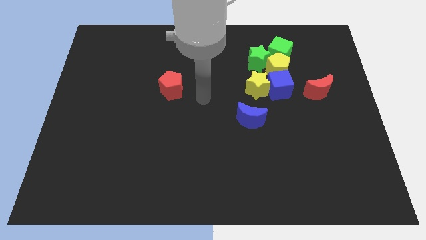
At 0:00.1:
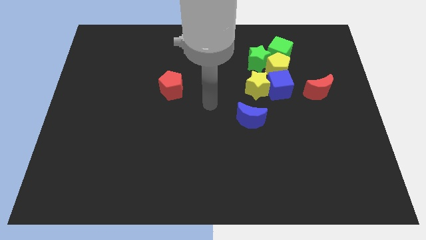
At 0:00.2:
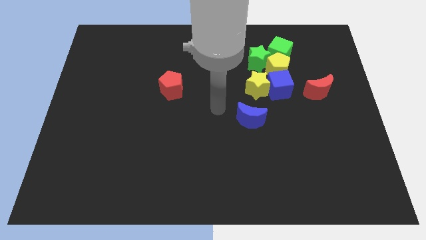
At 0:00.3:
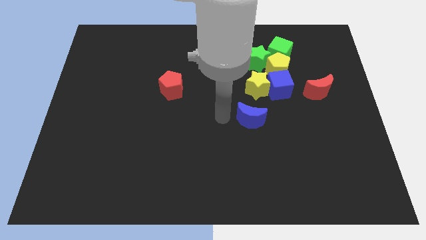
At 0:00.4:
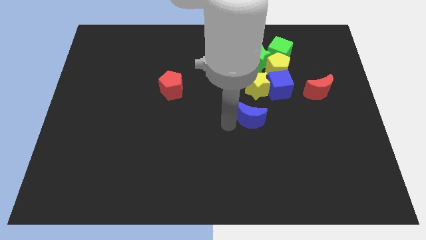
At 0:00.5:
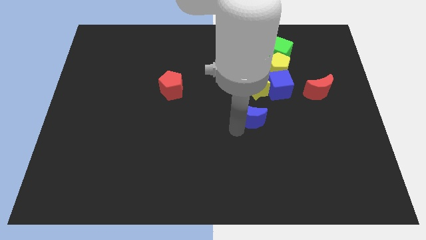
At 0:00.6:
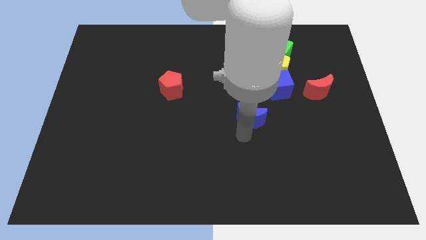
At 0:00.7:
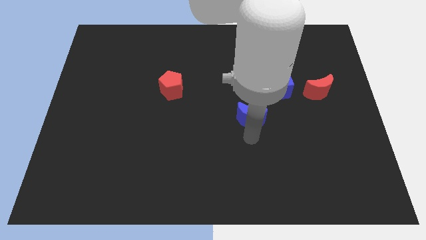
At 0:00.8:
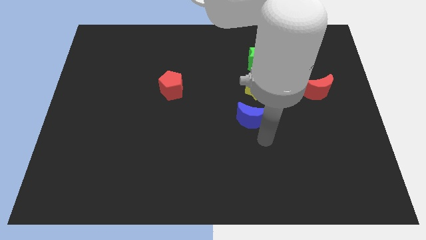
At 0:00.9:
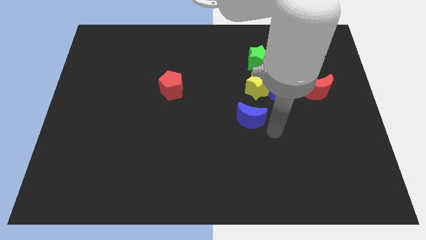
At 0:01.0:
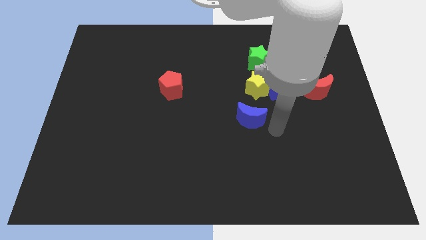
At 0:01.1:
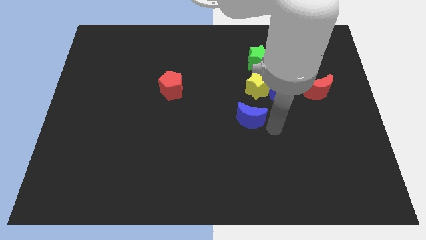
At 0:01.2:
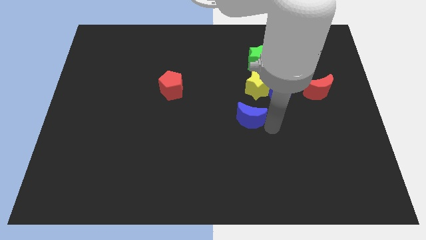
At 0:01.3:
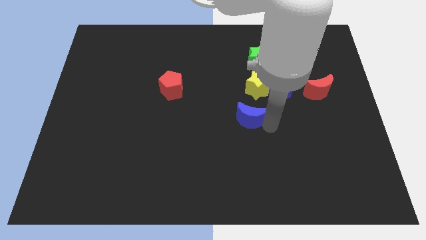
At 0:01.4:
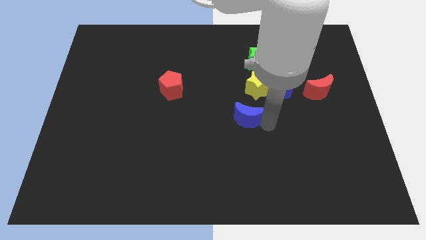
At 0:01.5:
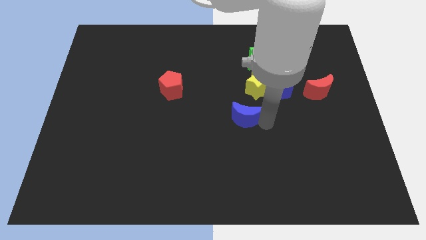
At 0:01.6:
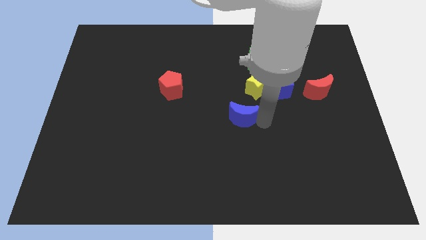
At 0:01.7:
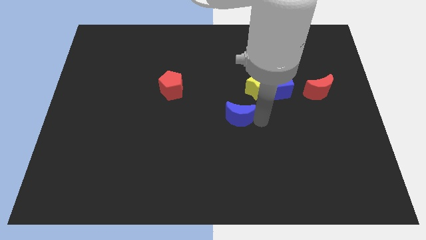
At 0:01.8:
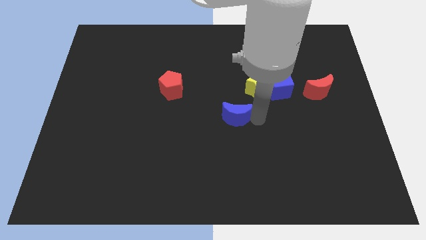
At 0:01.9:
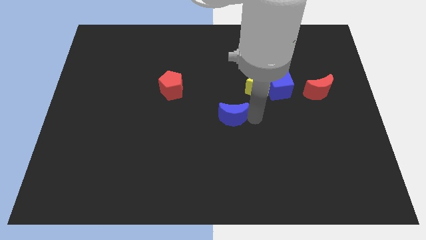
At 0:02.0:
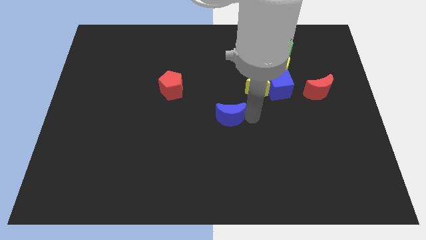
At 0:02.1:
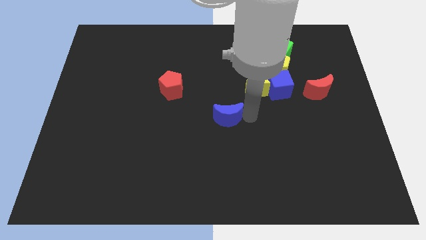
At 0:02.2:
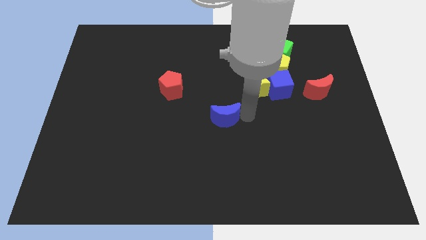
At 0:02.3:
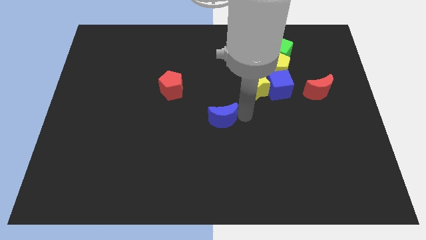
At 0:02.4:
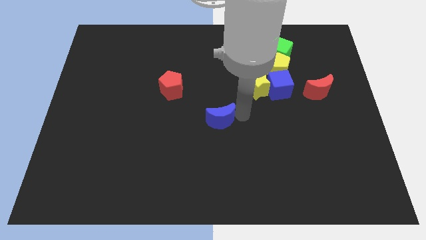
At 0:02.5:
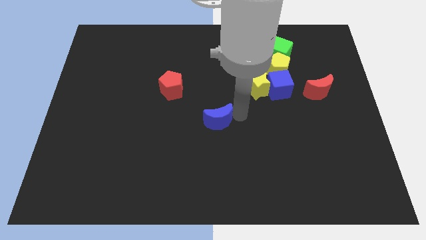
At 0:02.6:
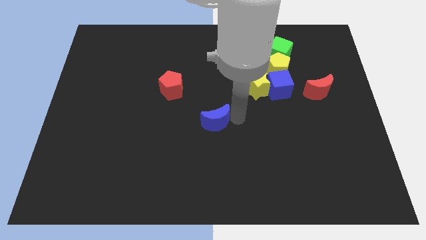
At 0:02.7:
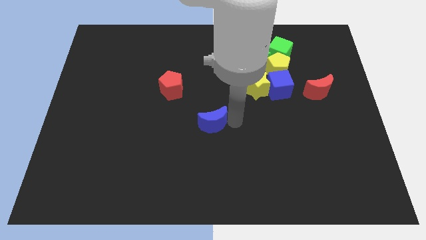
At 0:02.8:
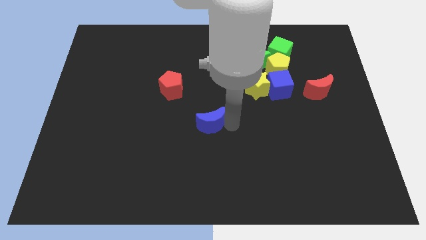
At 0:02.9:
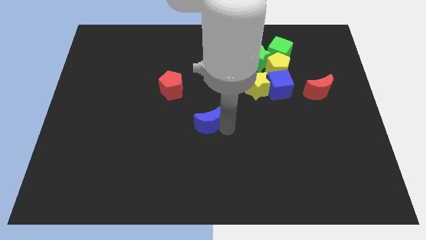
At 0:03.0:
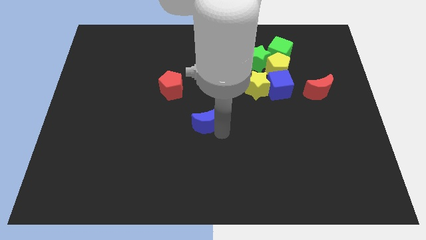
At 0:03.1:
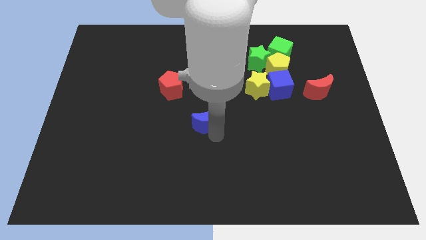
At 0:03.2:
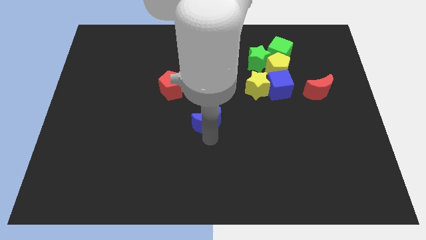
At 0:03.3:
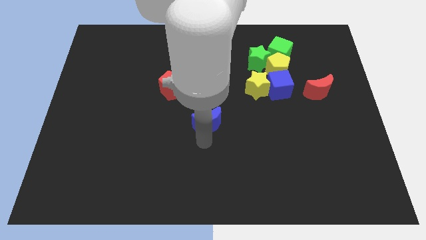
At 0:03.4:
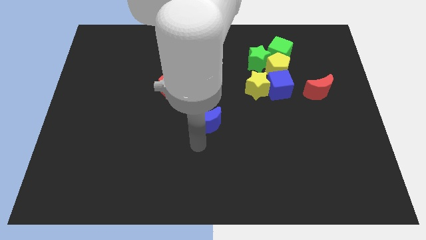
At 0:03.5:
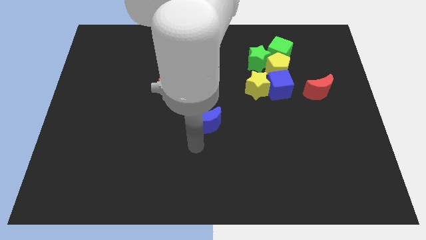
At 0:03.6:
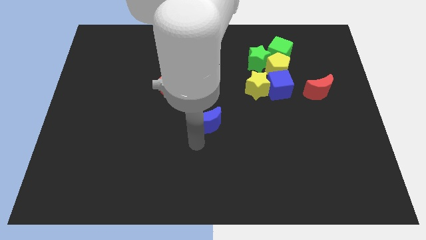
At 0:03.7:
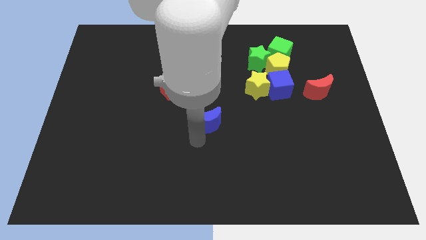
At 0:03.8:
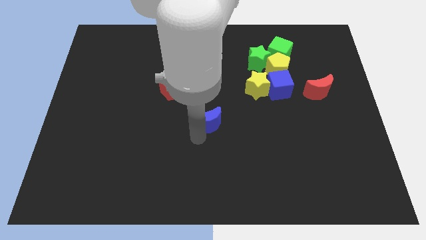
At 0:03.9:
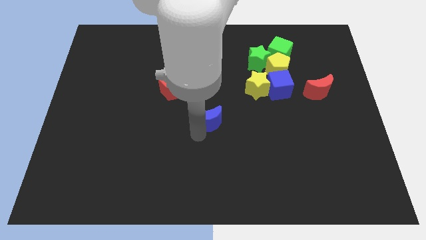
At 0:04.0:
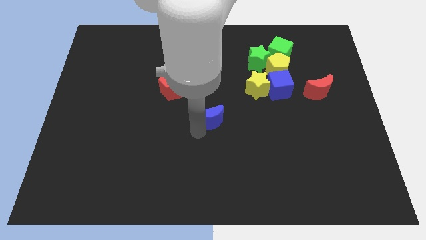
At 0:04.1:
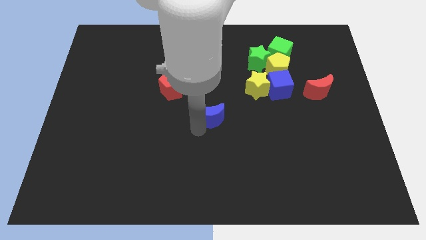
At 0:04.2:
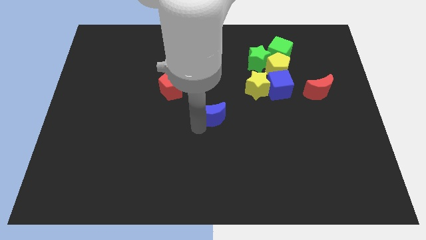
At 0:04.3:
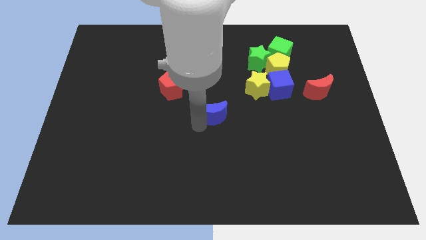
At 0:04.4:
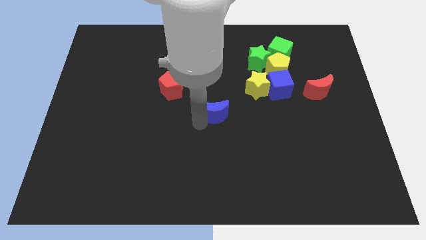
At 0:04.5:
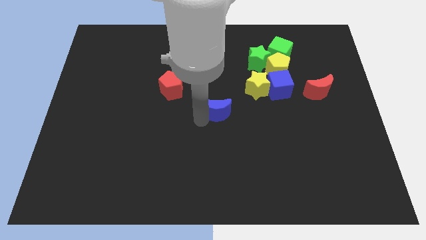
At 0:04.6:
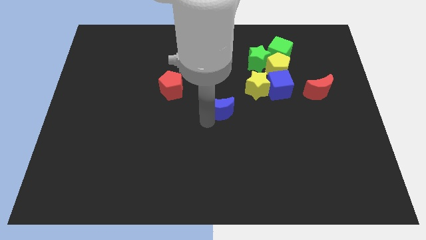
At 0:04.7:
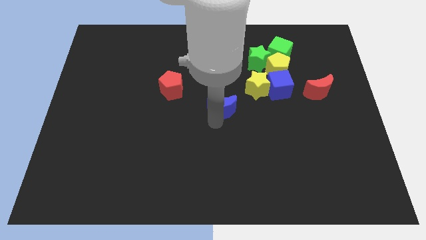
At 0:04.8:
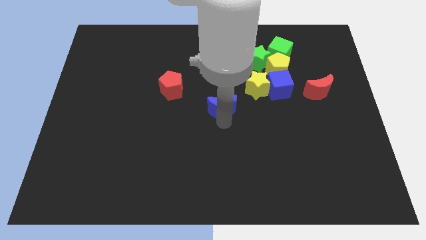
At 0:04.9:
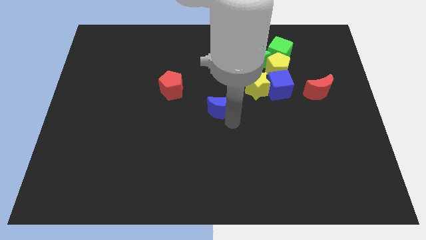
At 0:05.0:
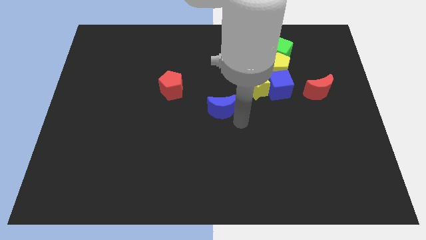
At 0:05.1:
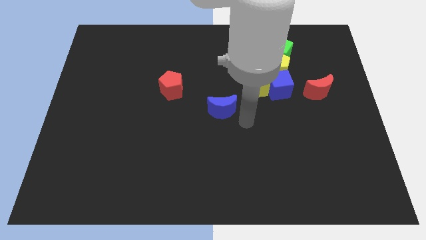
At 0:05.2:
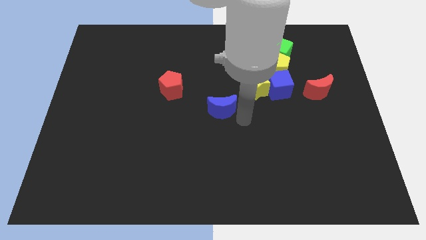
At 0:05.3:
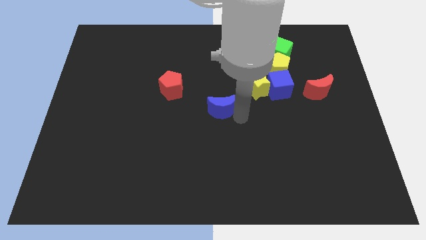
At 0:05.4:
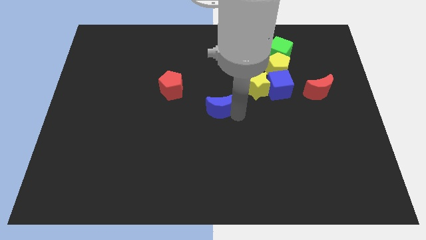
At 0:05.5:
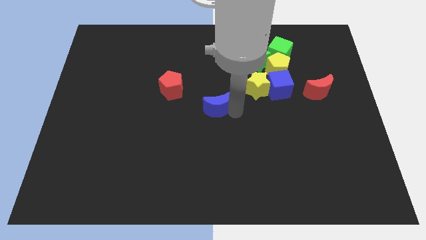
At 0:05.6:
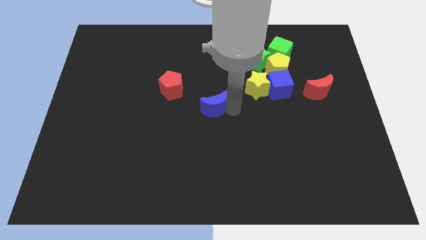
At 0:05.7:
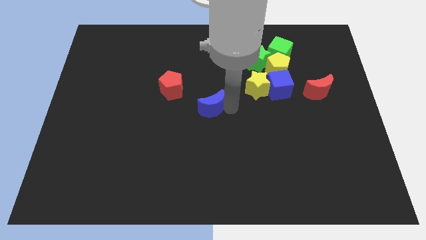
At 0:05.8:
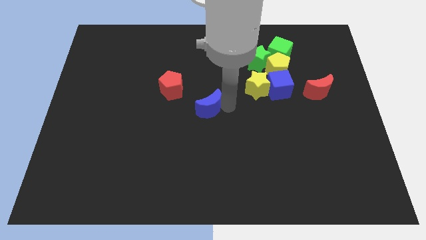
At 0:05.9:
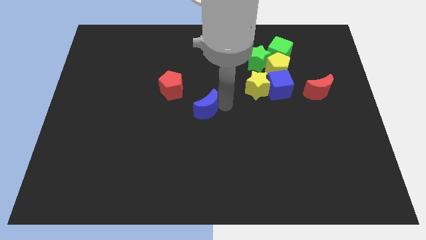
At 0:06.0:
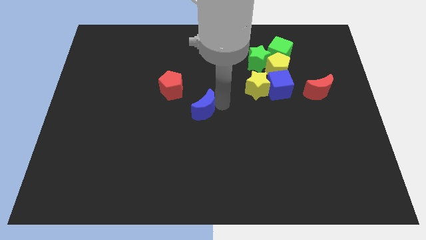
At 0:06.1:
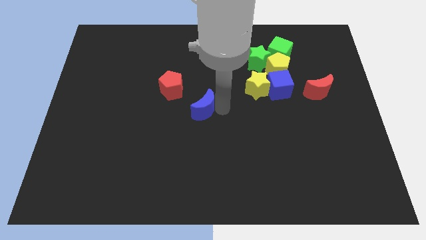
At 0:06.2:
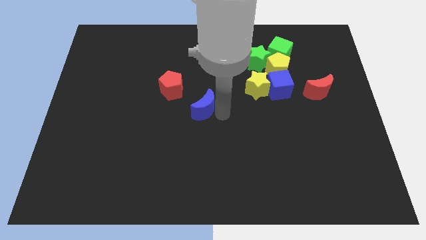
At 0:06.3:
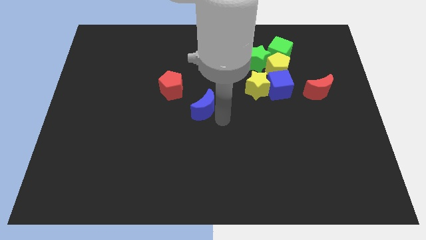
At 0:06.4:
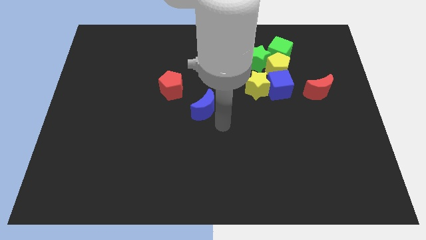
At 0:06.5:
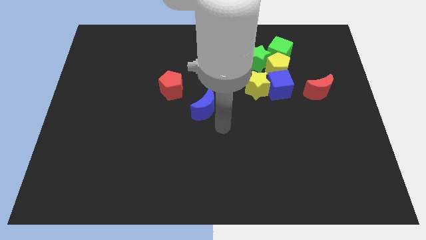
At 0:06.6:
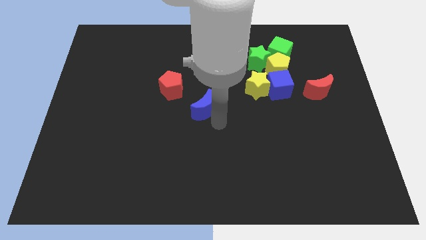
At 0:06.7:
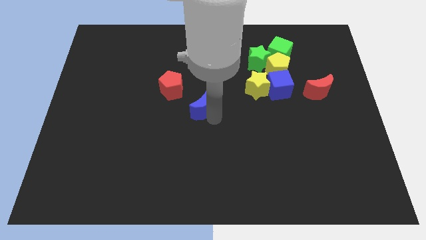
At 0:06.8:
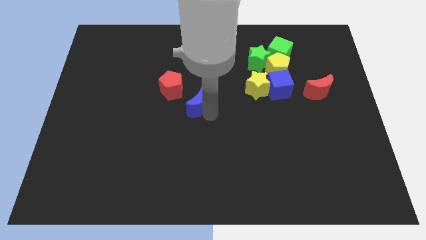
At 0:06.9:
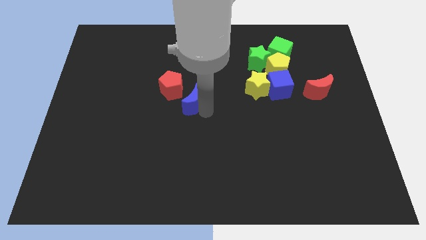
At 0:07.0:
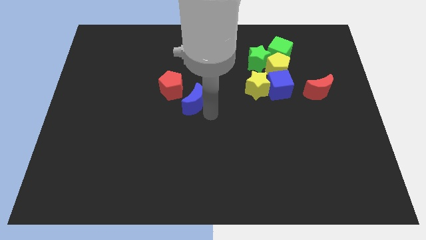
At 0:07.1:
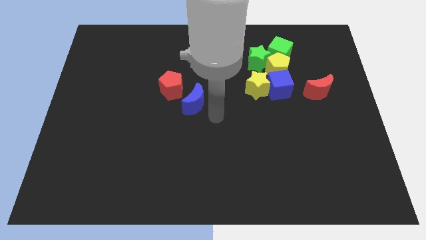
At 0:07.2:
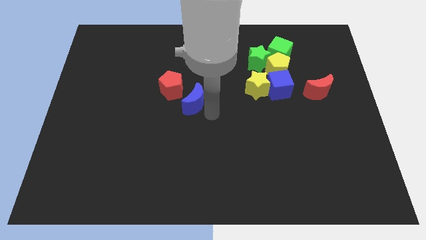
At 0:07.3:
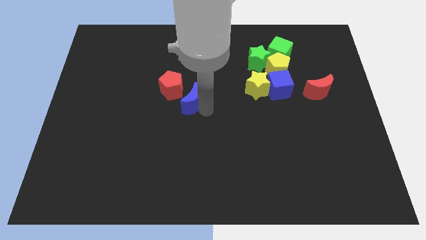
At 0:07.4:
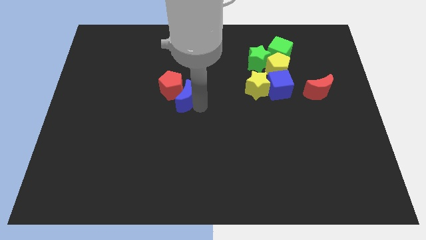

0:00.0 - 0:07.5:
put the blue moon to the red pentagon
